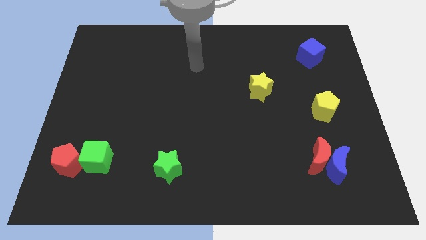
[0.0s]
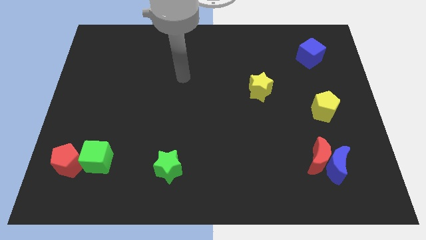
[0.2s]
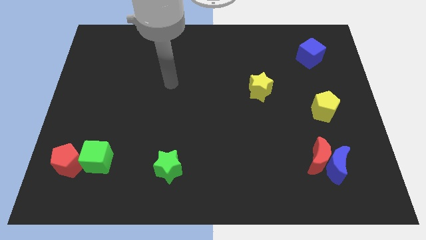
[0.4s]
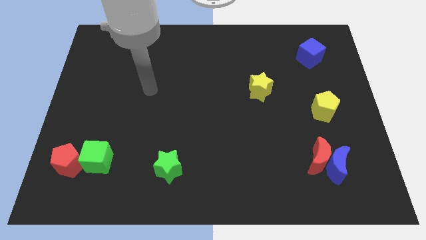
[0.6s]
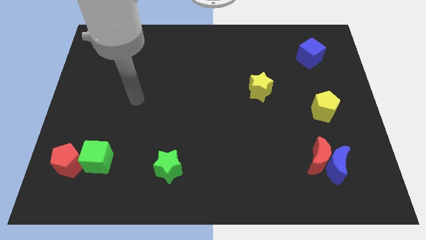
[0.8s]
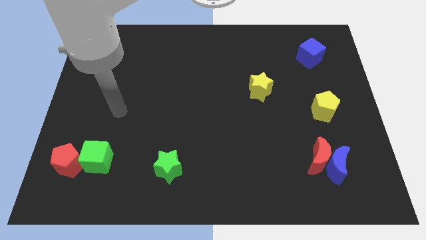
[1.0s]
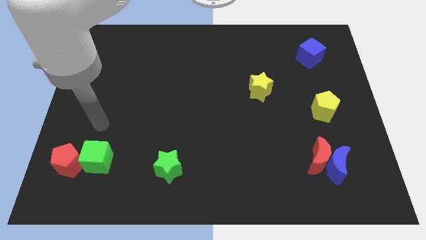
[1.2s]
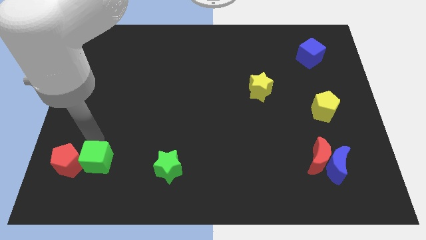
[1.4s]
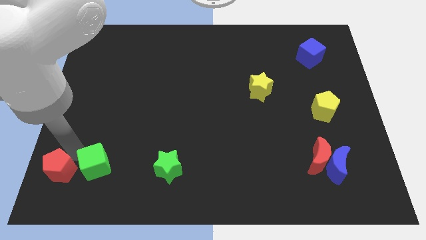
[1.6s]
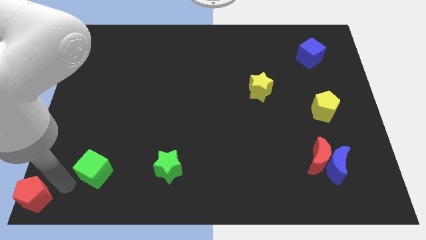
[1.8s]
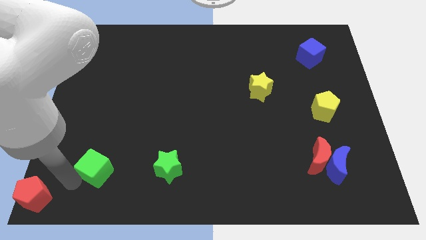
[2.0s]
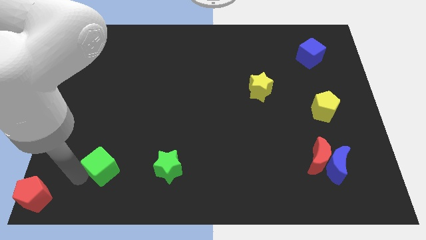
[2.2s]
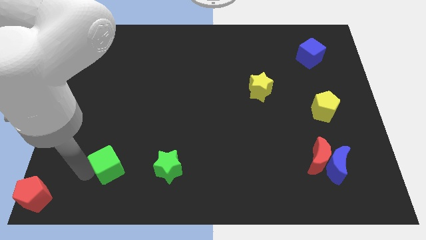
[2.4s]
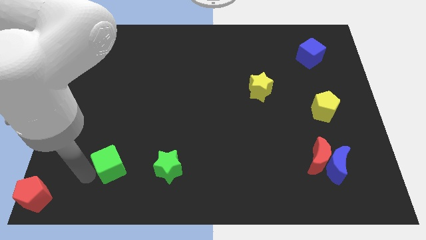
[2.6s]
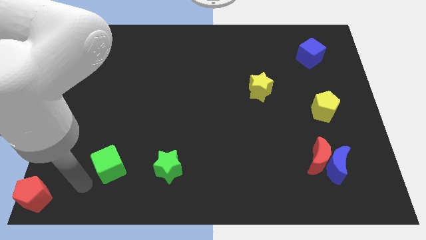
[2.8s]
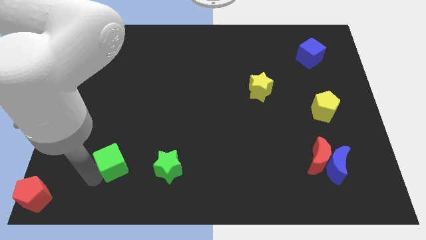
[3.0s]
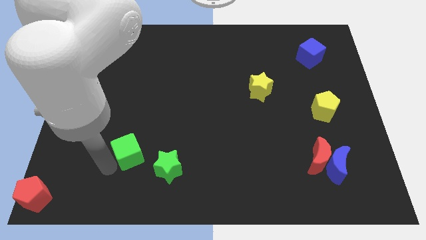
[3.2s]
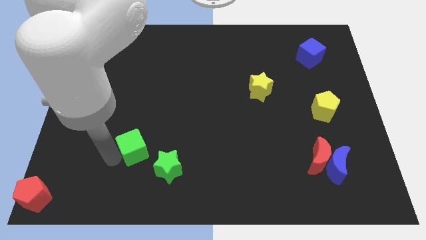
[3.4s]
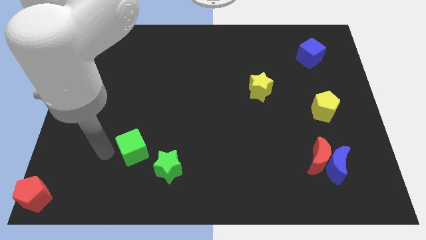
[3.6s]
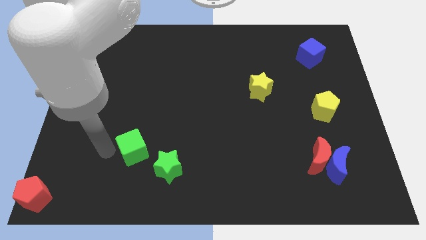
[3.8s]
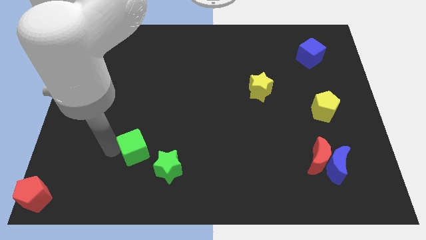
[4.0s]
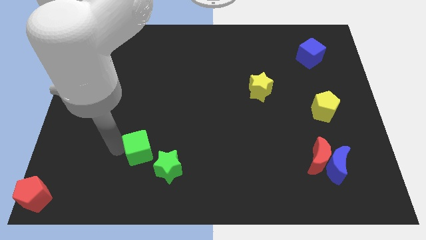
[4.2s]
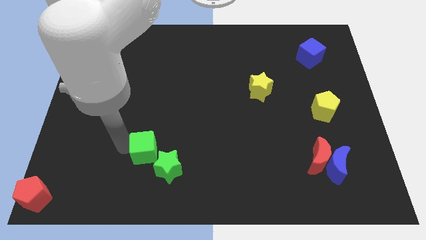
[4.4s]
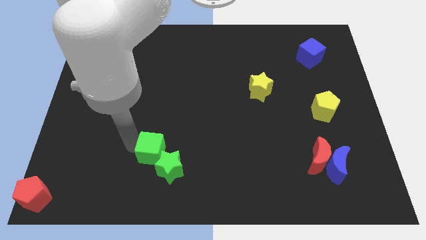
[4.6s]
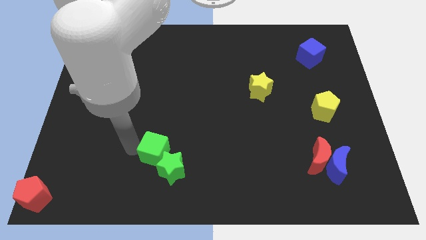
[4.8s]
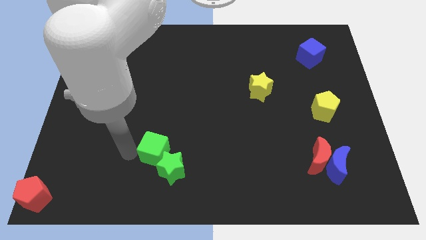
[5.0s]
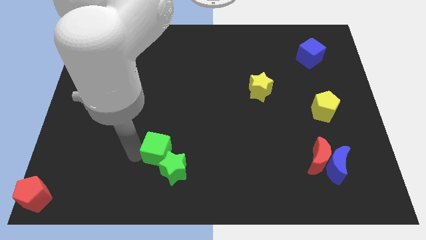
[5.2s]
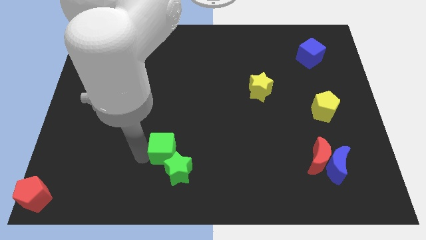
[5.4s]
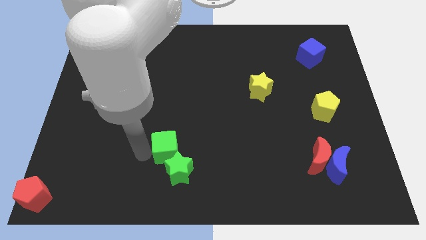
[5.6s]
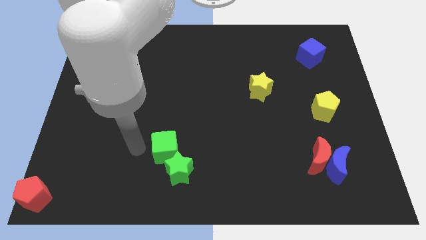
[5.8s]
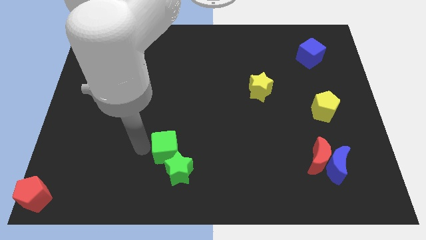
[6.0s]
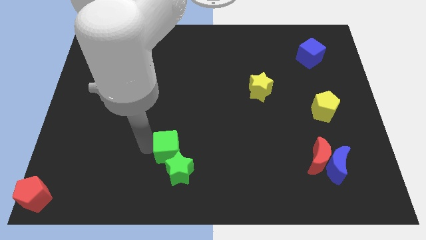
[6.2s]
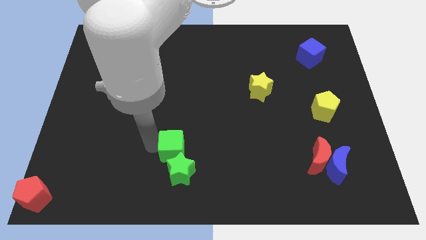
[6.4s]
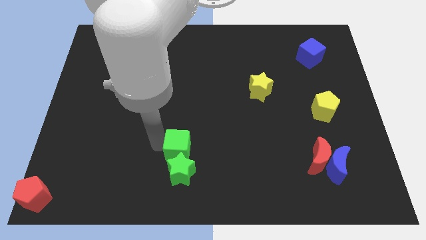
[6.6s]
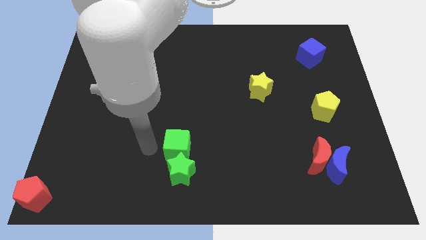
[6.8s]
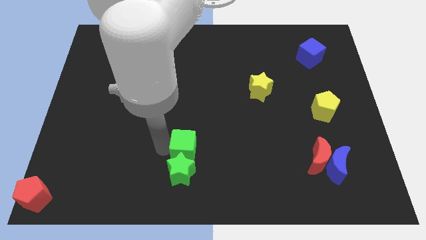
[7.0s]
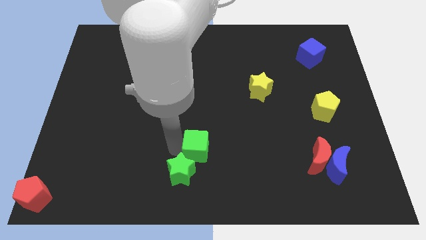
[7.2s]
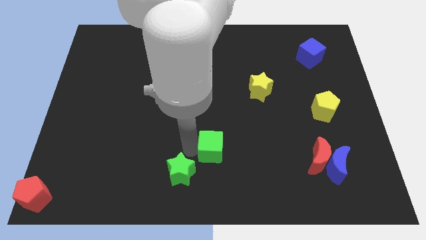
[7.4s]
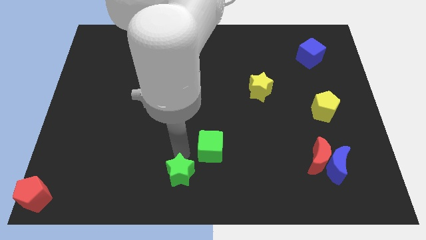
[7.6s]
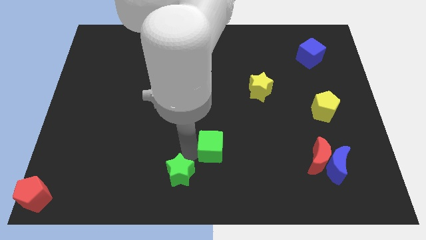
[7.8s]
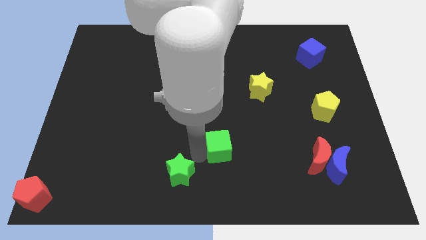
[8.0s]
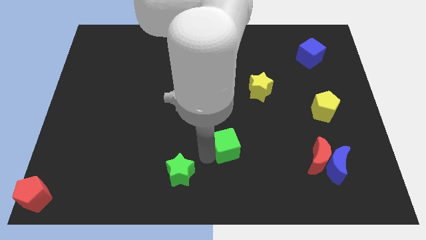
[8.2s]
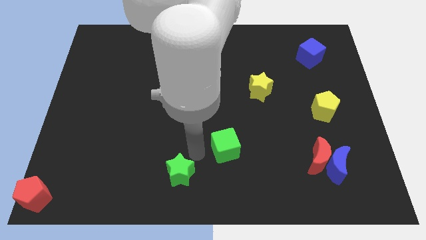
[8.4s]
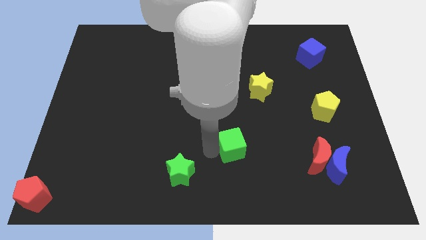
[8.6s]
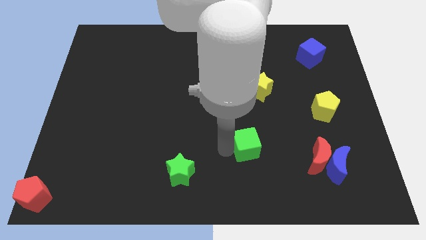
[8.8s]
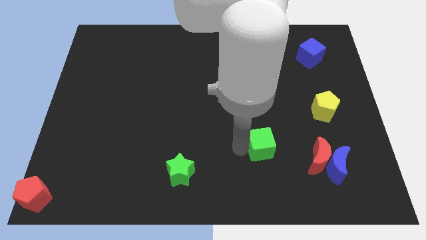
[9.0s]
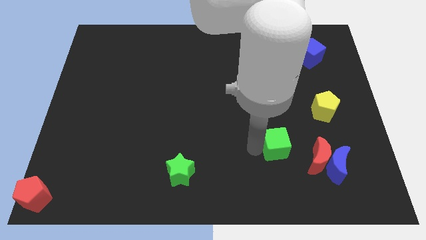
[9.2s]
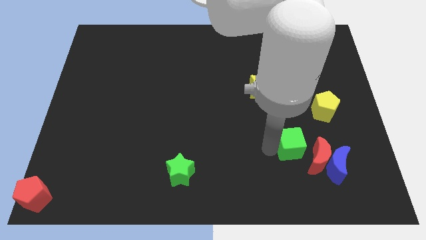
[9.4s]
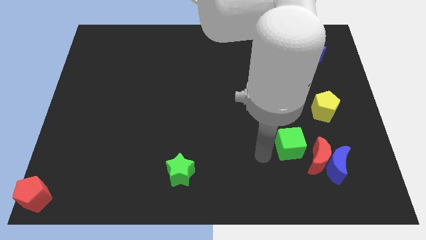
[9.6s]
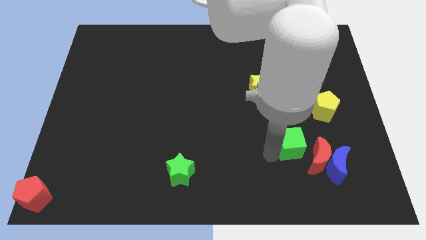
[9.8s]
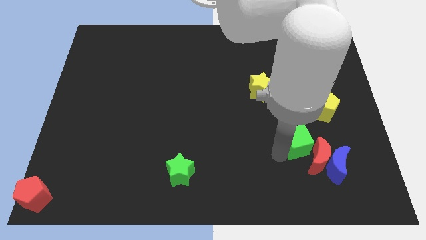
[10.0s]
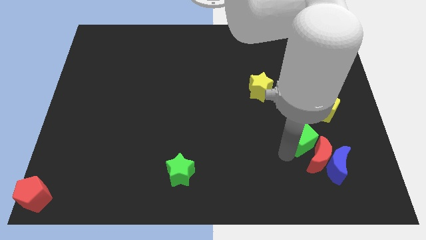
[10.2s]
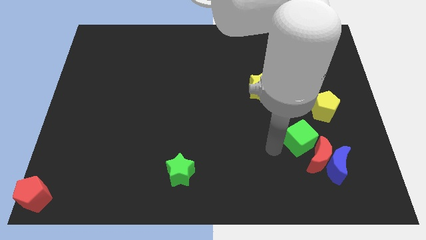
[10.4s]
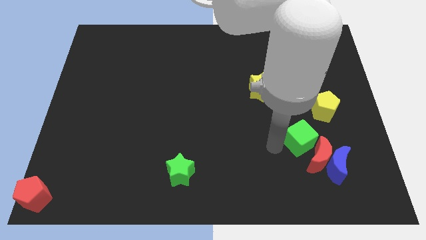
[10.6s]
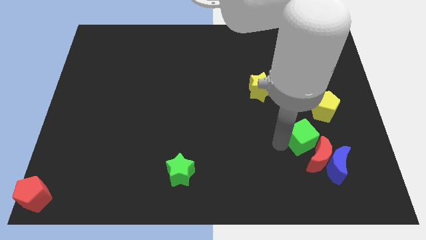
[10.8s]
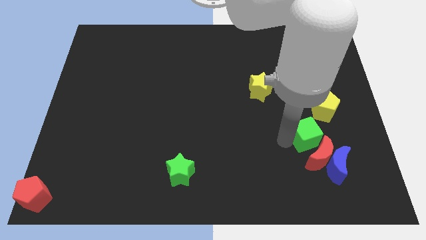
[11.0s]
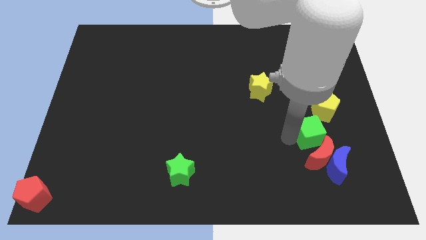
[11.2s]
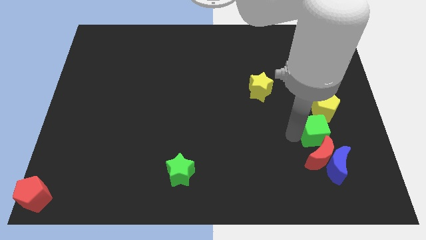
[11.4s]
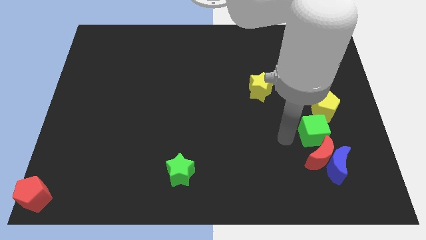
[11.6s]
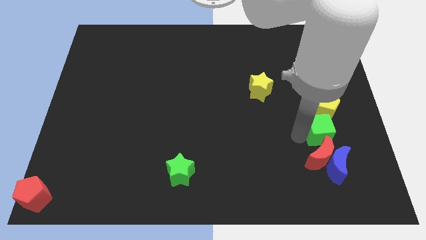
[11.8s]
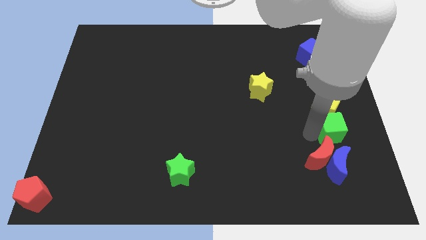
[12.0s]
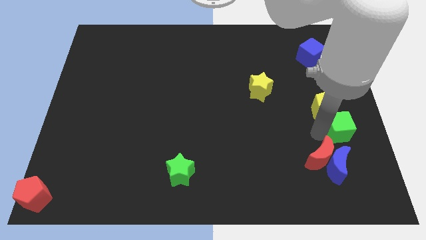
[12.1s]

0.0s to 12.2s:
move the green cube to the right side
